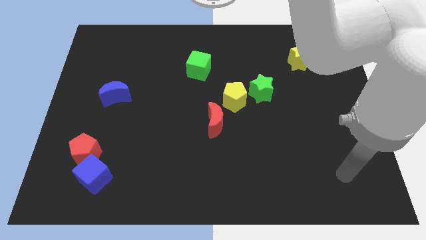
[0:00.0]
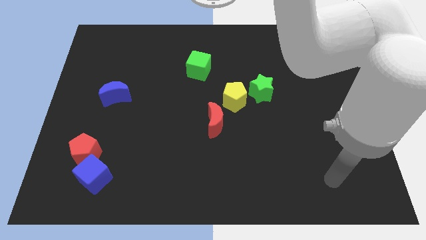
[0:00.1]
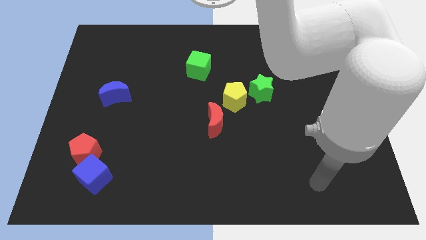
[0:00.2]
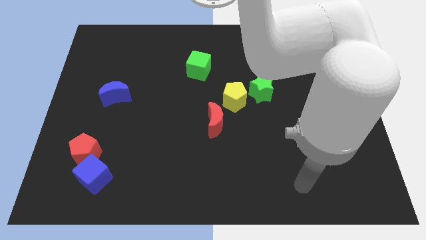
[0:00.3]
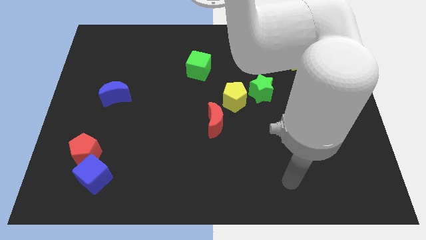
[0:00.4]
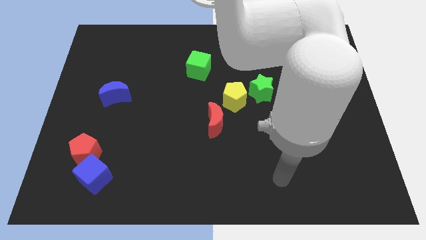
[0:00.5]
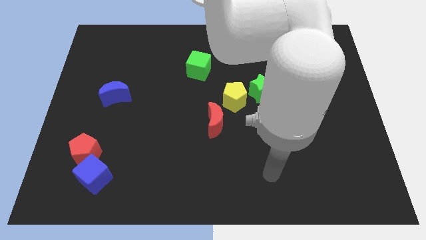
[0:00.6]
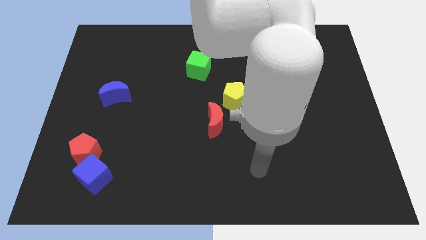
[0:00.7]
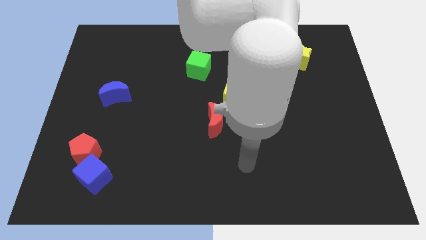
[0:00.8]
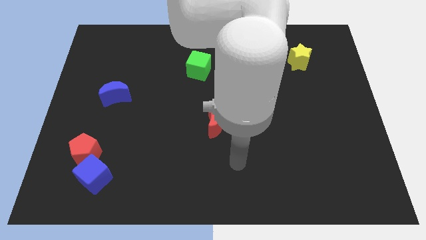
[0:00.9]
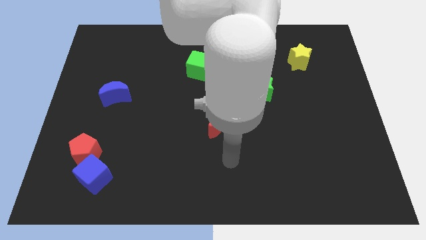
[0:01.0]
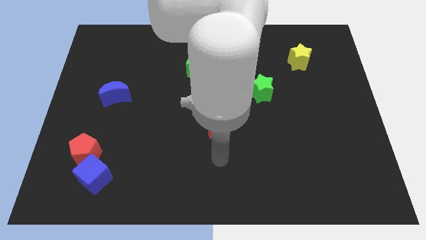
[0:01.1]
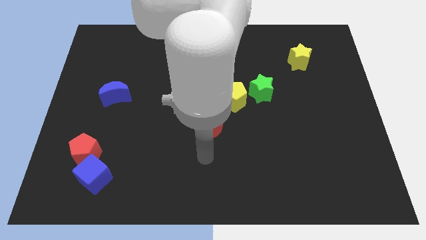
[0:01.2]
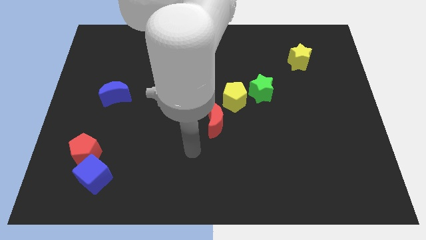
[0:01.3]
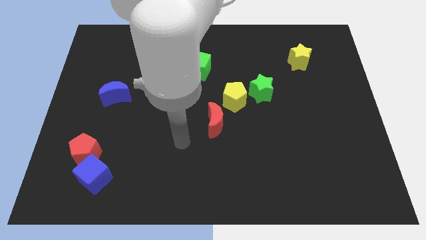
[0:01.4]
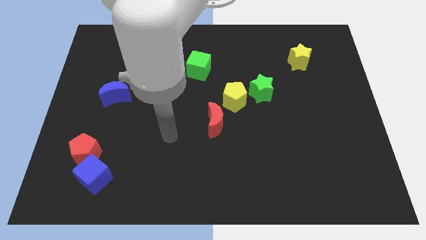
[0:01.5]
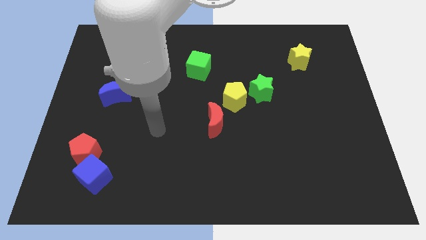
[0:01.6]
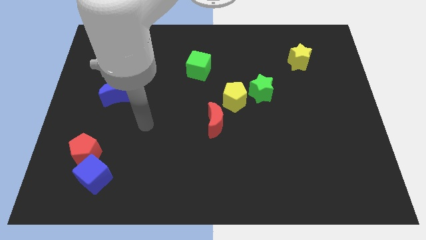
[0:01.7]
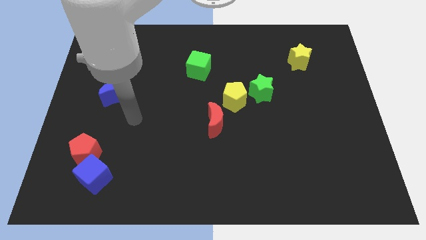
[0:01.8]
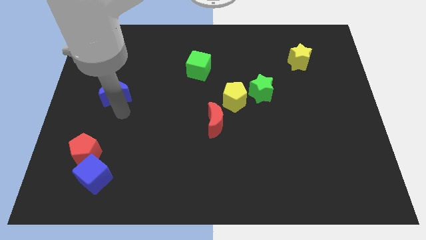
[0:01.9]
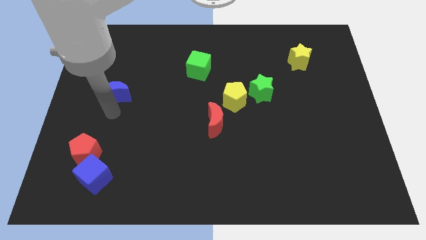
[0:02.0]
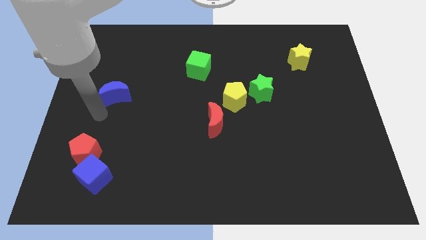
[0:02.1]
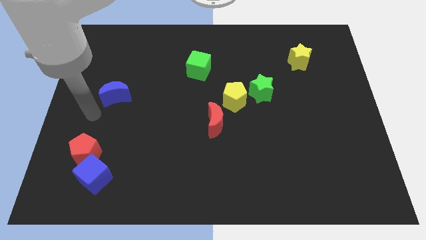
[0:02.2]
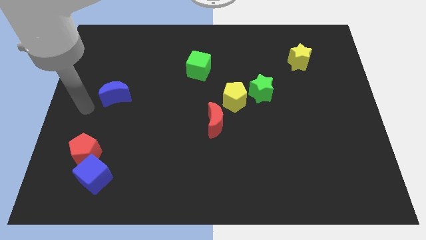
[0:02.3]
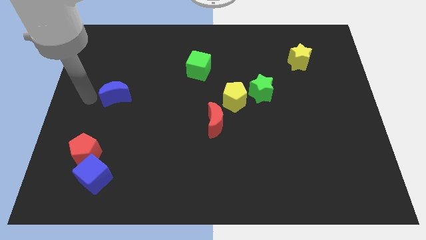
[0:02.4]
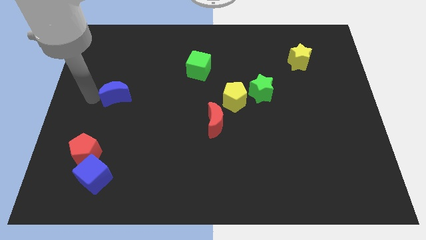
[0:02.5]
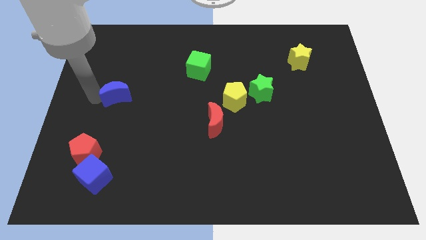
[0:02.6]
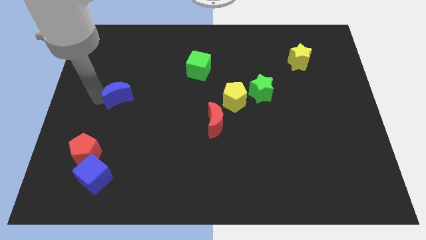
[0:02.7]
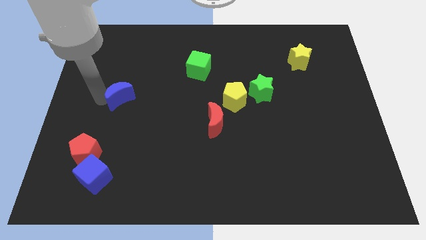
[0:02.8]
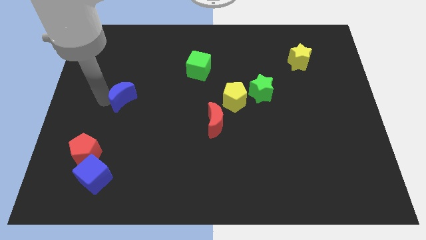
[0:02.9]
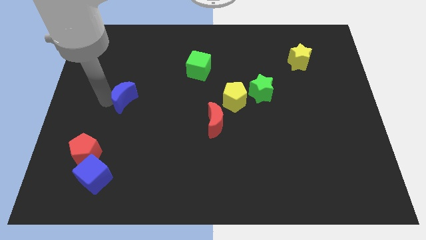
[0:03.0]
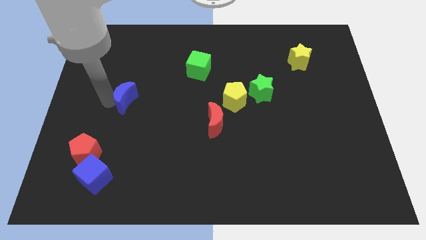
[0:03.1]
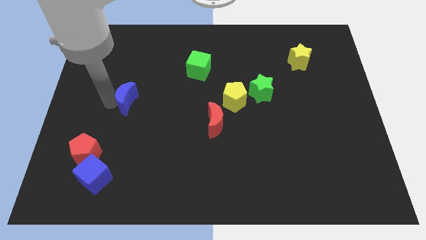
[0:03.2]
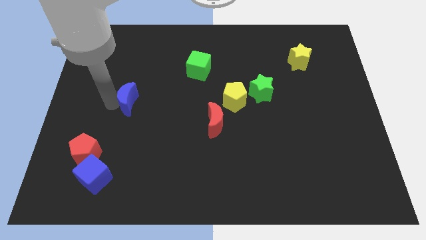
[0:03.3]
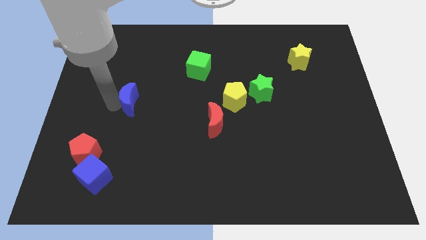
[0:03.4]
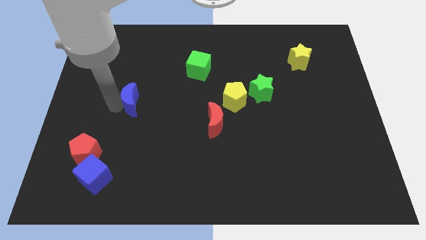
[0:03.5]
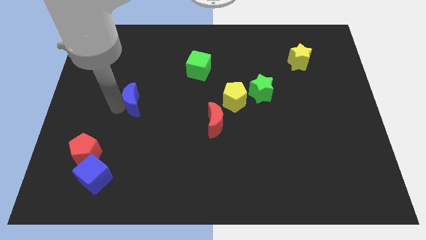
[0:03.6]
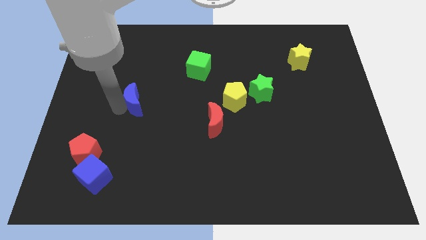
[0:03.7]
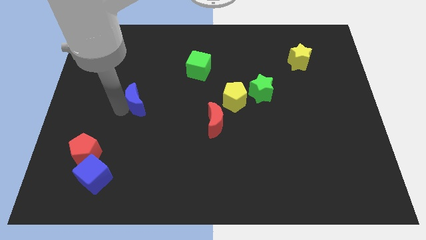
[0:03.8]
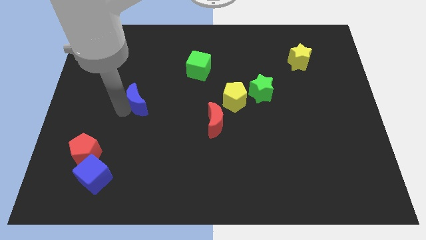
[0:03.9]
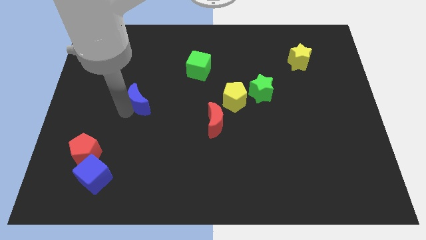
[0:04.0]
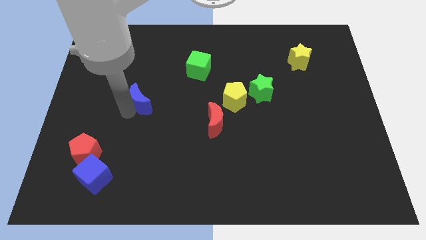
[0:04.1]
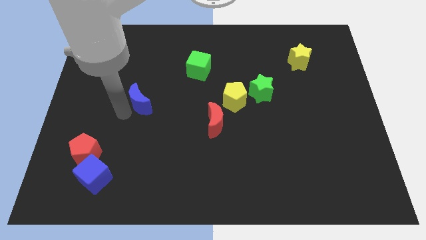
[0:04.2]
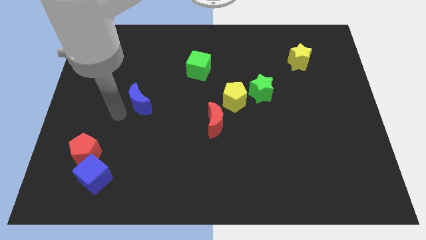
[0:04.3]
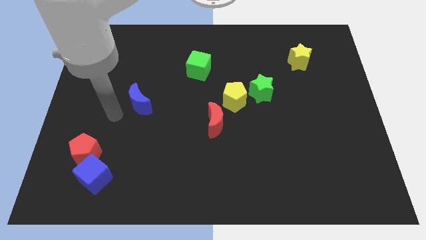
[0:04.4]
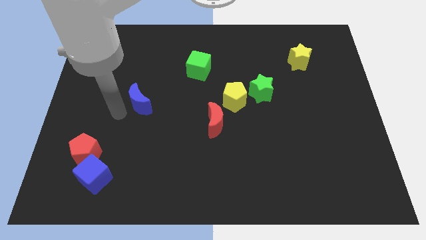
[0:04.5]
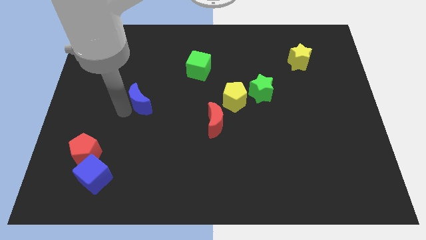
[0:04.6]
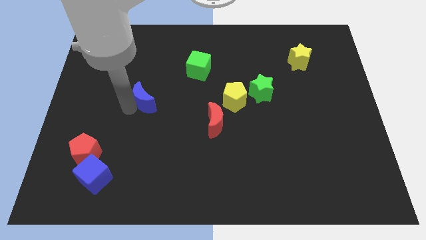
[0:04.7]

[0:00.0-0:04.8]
slide the blue moon somewhat right

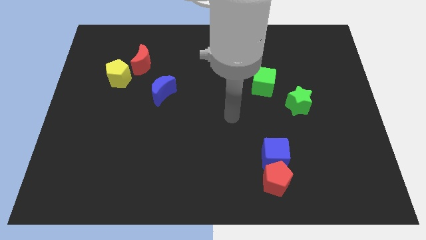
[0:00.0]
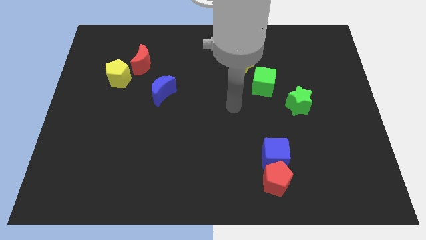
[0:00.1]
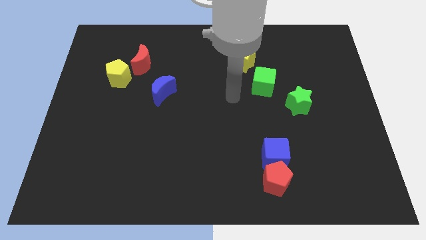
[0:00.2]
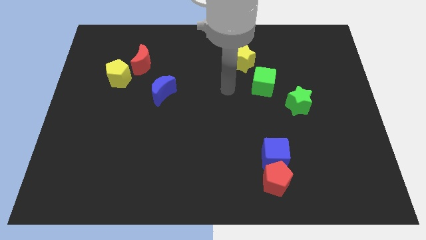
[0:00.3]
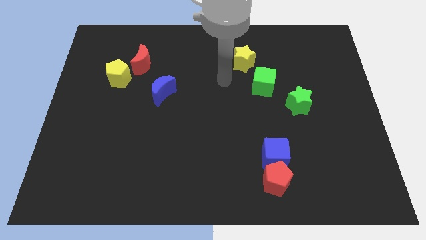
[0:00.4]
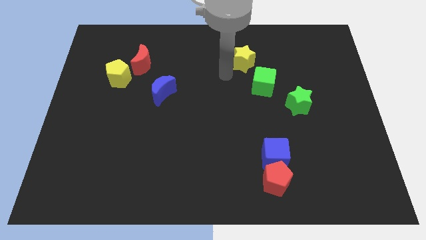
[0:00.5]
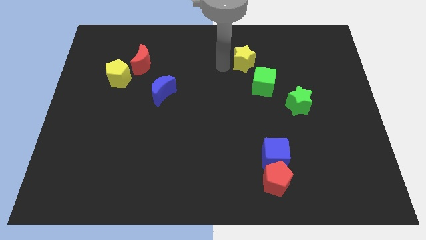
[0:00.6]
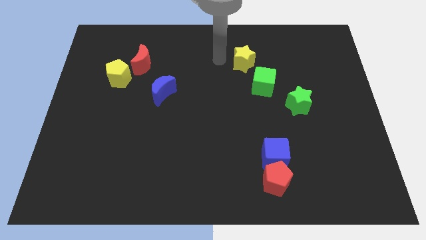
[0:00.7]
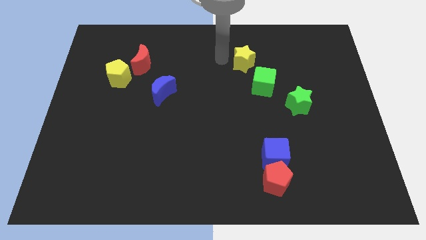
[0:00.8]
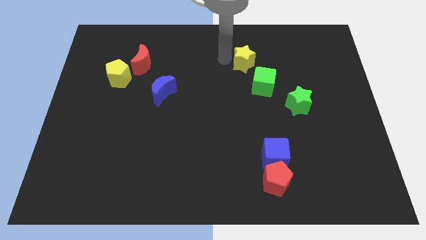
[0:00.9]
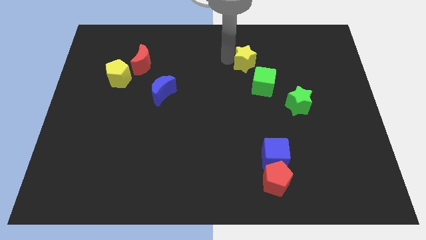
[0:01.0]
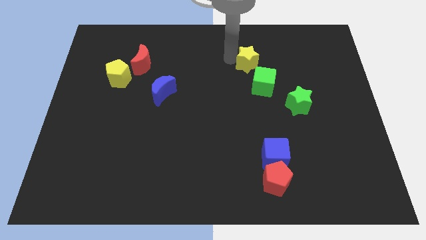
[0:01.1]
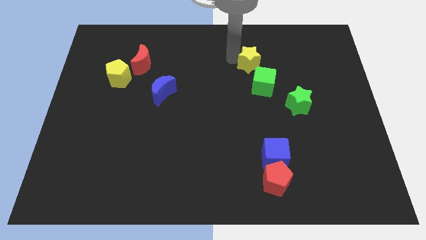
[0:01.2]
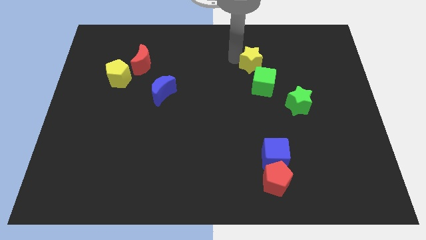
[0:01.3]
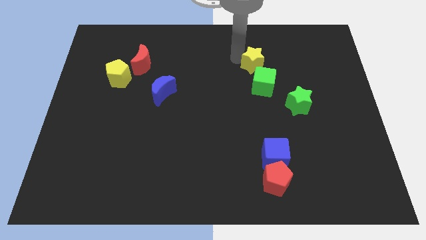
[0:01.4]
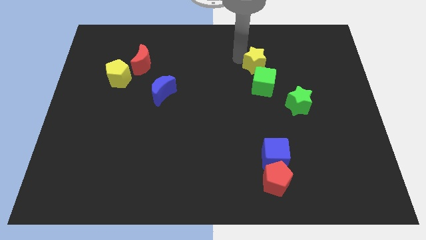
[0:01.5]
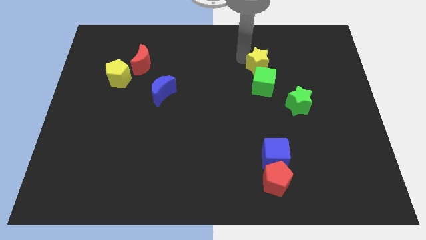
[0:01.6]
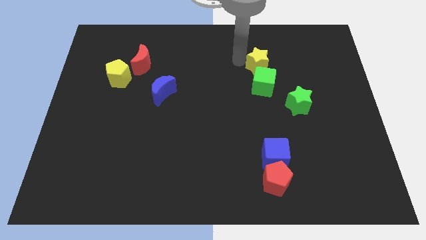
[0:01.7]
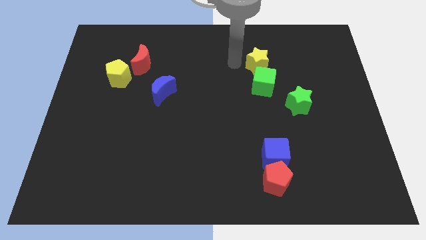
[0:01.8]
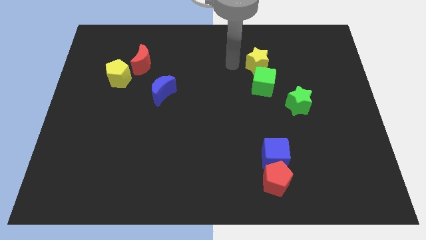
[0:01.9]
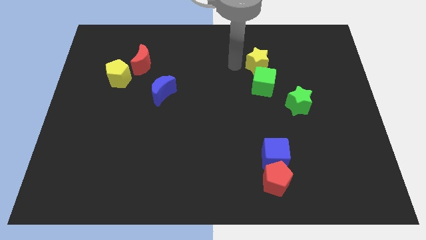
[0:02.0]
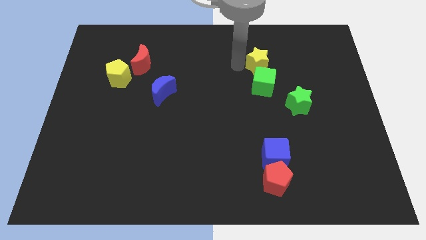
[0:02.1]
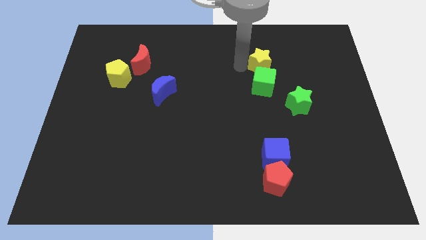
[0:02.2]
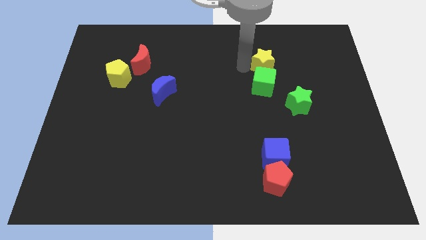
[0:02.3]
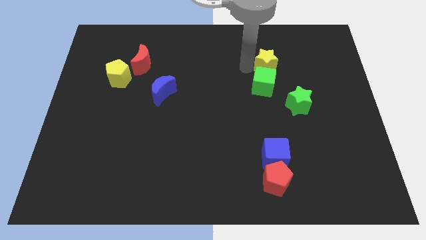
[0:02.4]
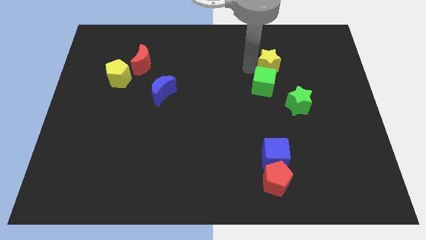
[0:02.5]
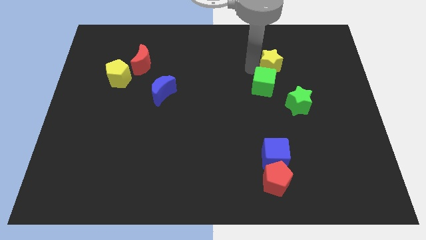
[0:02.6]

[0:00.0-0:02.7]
push the yellow star somewhat to the right

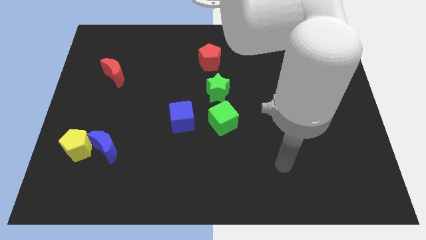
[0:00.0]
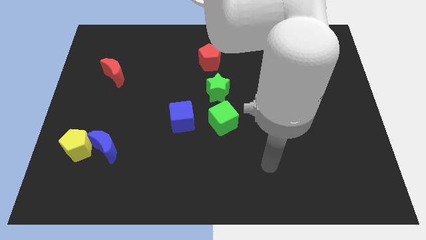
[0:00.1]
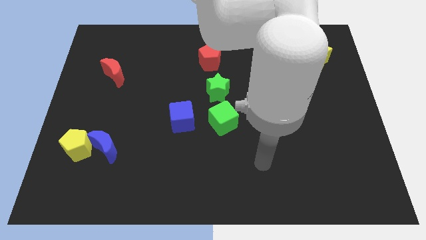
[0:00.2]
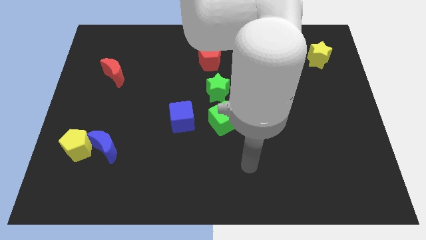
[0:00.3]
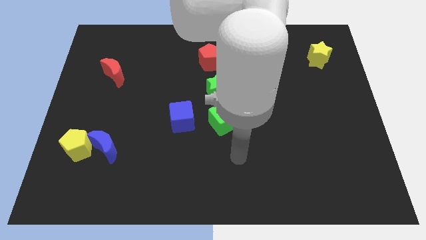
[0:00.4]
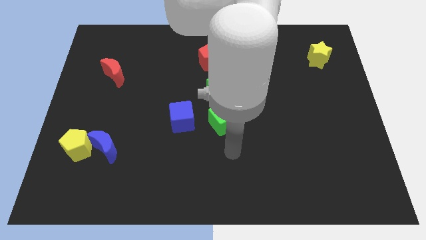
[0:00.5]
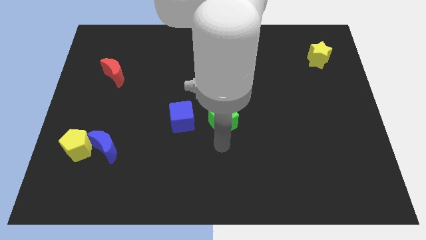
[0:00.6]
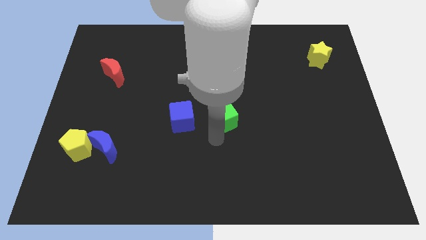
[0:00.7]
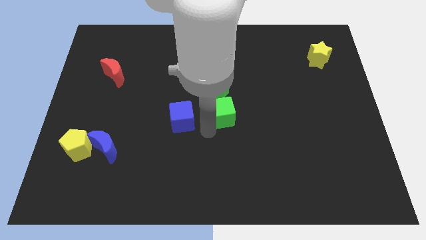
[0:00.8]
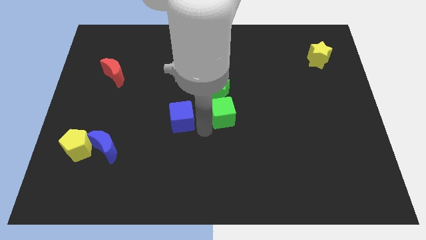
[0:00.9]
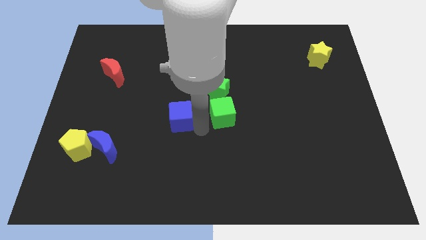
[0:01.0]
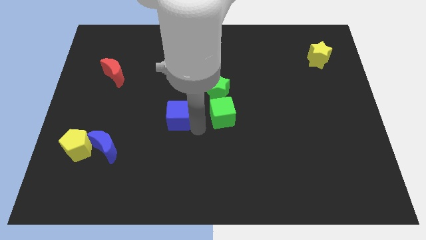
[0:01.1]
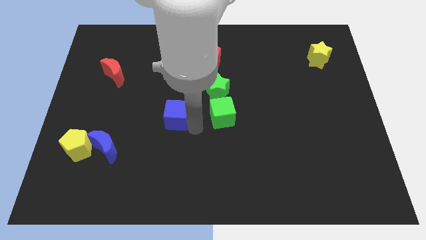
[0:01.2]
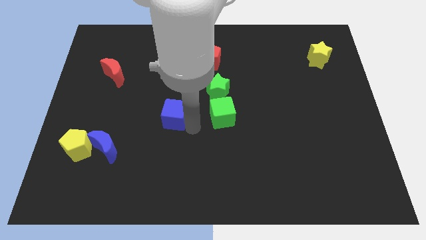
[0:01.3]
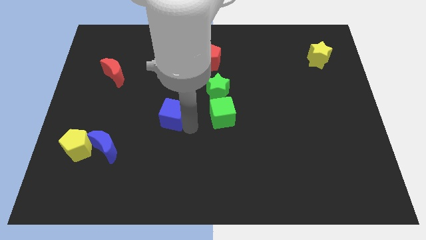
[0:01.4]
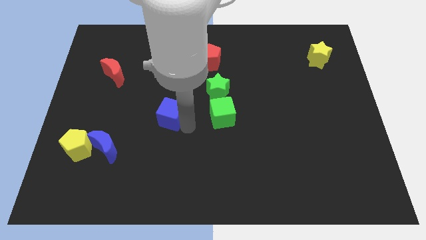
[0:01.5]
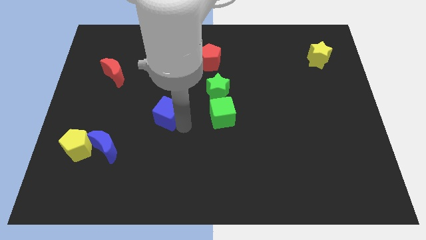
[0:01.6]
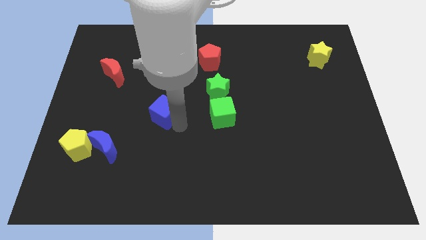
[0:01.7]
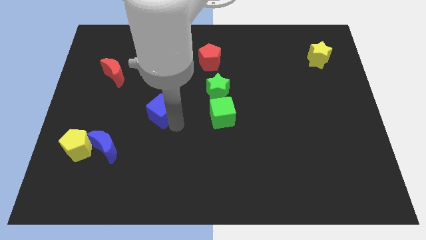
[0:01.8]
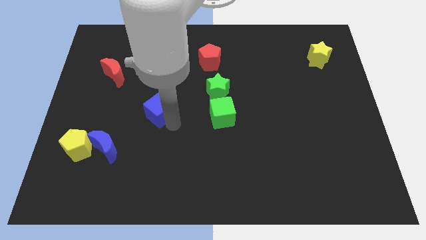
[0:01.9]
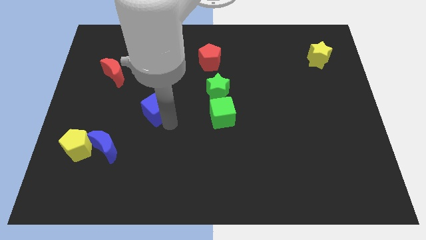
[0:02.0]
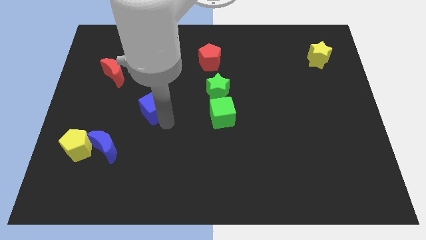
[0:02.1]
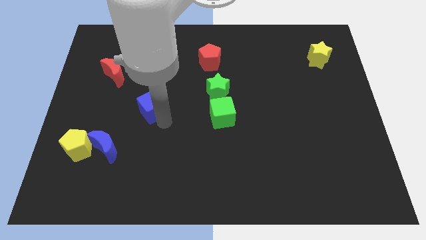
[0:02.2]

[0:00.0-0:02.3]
slide the blue cube a bit up and to the left
